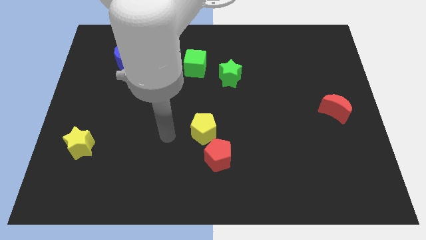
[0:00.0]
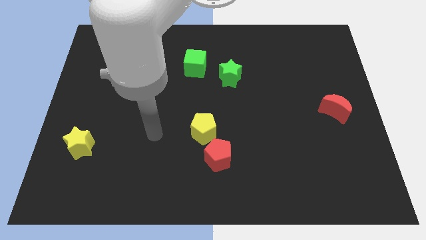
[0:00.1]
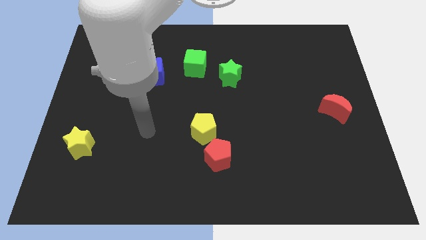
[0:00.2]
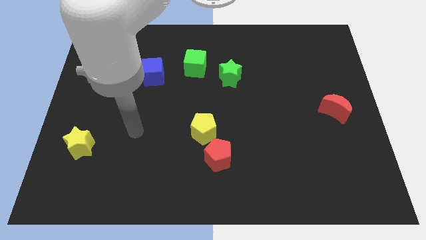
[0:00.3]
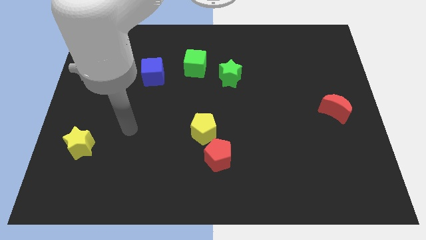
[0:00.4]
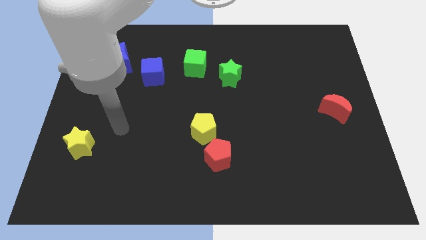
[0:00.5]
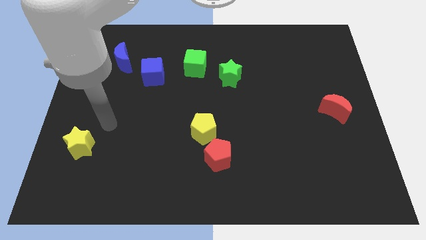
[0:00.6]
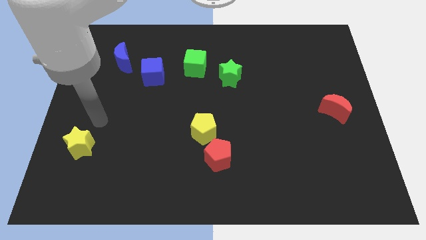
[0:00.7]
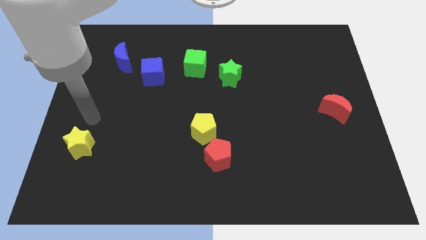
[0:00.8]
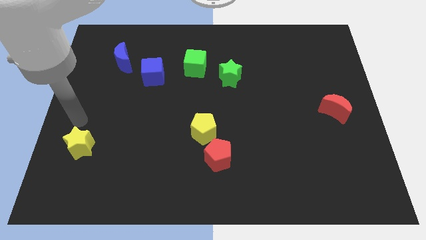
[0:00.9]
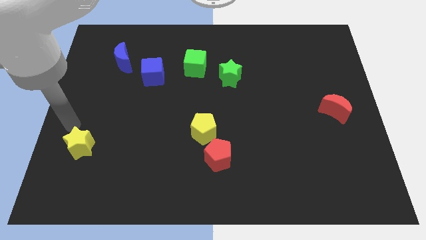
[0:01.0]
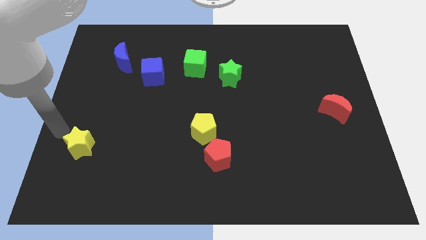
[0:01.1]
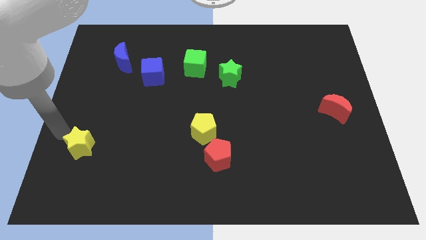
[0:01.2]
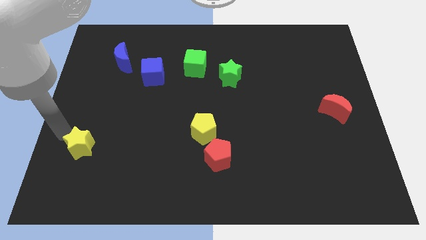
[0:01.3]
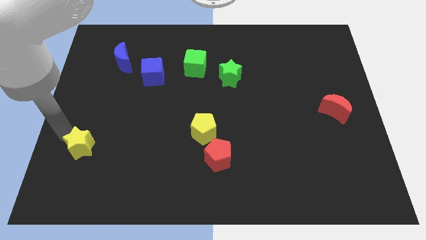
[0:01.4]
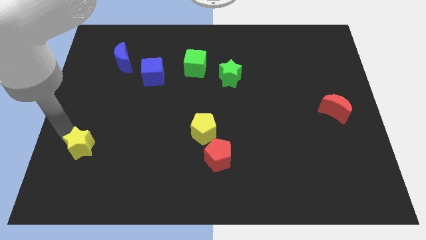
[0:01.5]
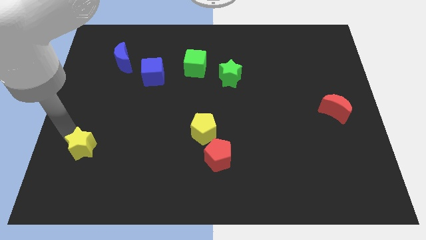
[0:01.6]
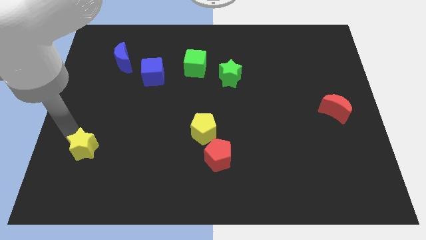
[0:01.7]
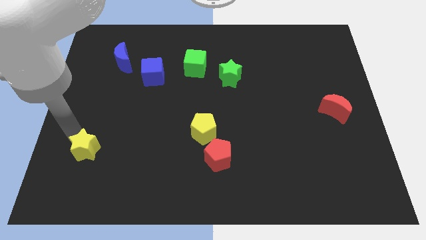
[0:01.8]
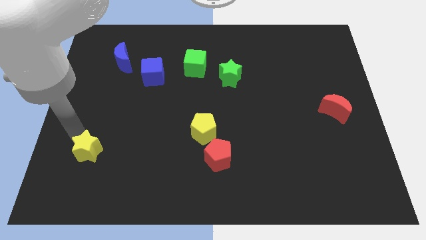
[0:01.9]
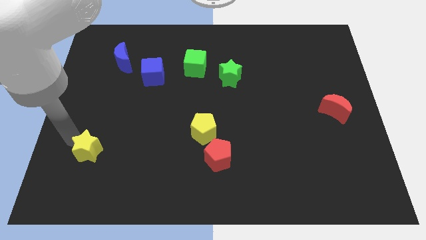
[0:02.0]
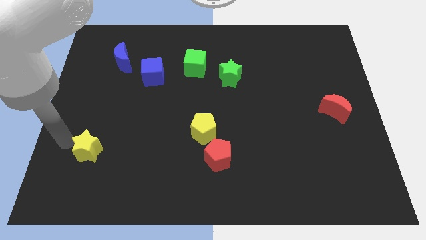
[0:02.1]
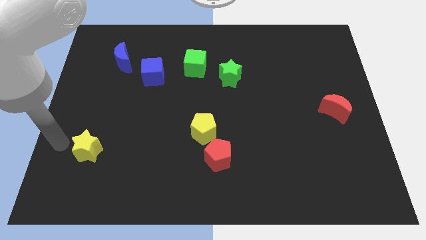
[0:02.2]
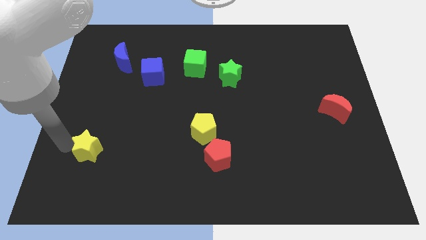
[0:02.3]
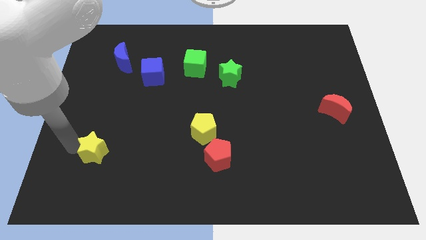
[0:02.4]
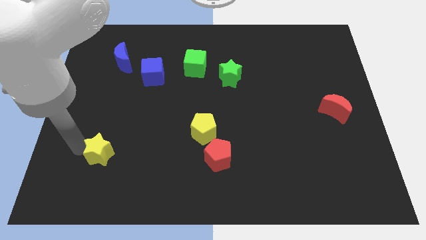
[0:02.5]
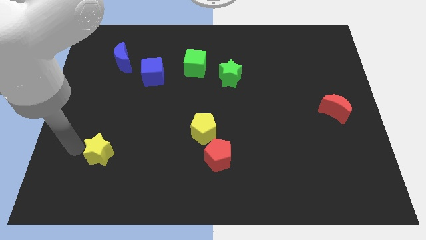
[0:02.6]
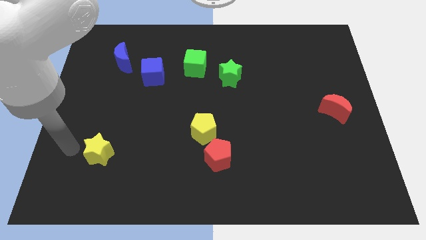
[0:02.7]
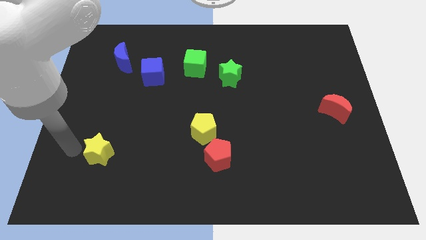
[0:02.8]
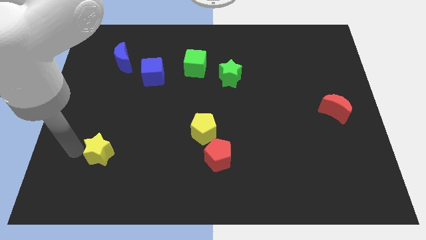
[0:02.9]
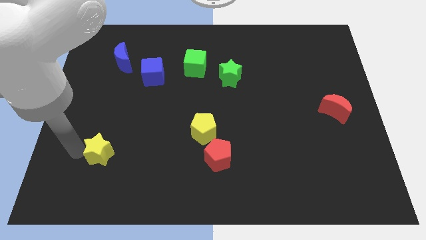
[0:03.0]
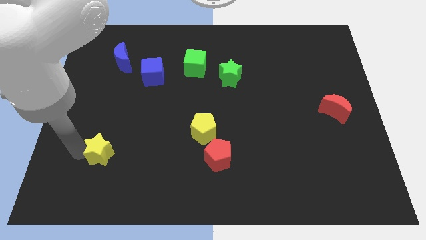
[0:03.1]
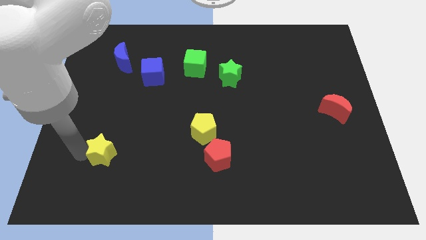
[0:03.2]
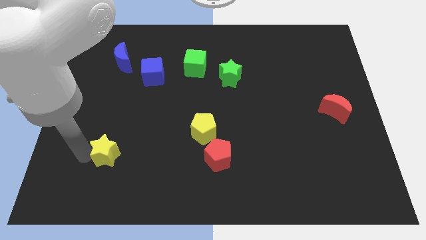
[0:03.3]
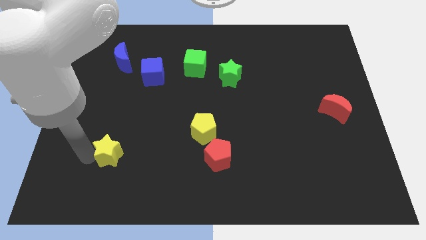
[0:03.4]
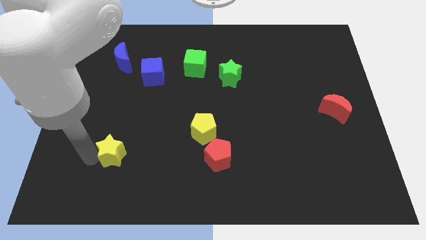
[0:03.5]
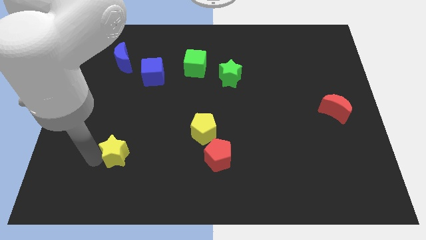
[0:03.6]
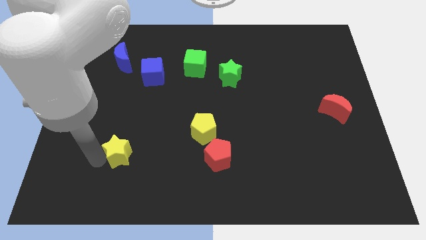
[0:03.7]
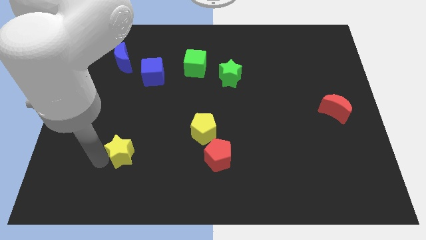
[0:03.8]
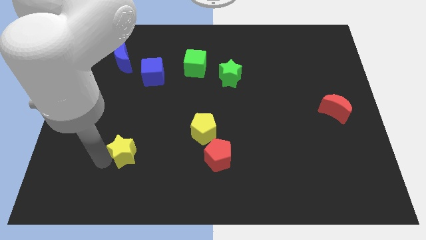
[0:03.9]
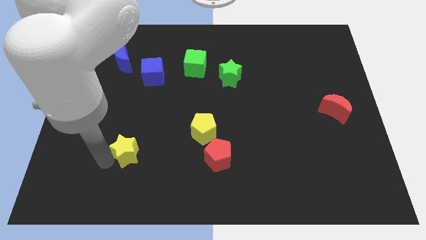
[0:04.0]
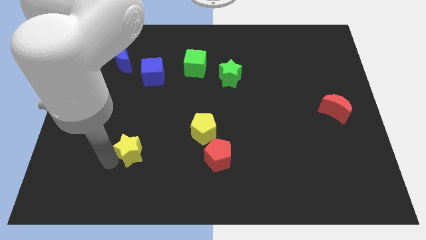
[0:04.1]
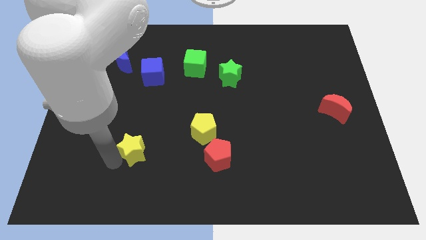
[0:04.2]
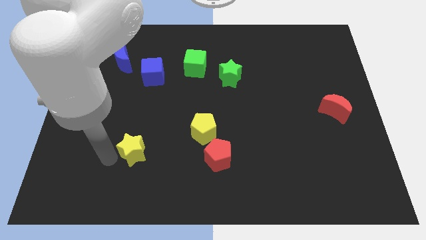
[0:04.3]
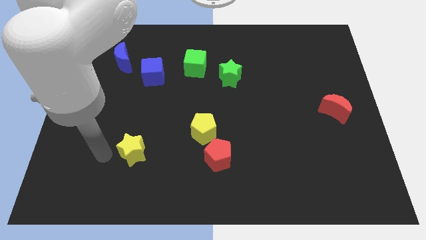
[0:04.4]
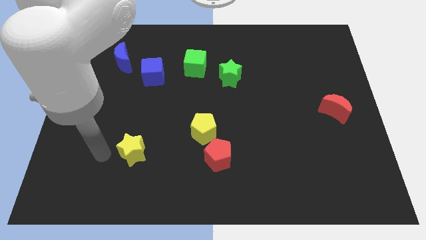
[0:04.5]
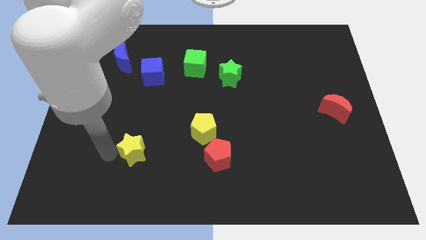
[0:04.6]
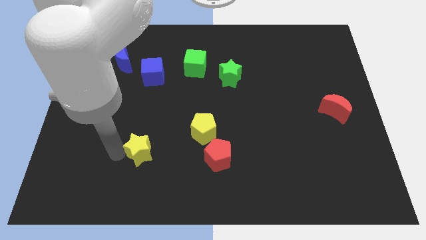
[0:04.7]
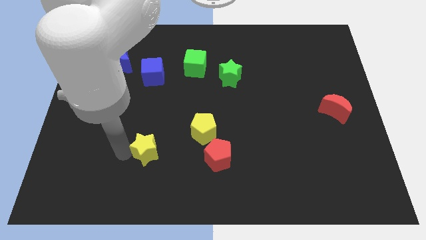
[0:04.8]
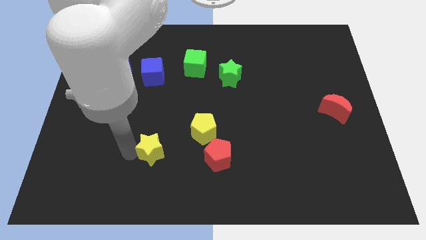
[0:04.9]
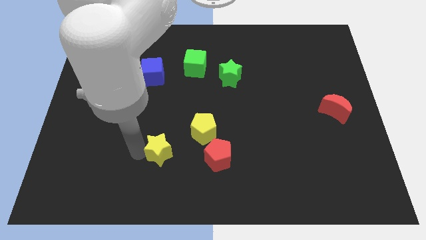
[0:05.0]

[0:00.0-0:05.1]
move the yellow star diagonally down and to the left of the yellow pentagon

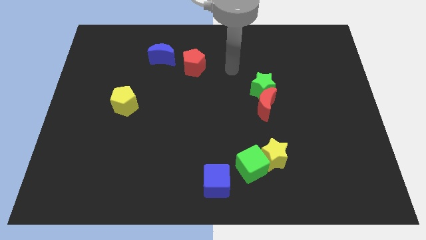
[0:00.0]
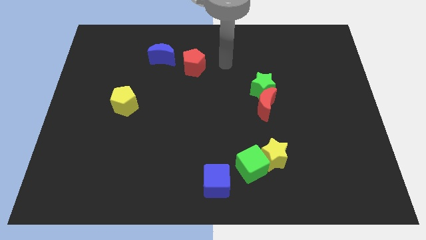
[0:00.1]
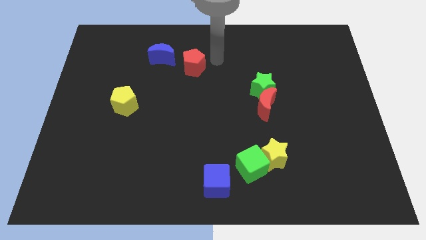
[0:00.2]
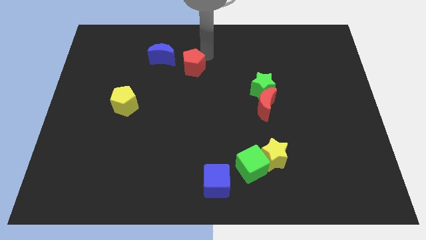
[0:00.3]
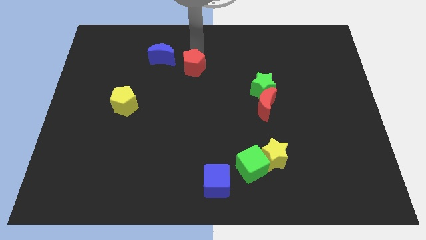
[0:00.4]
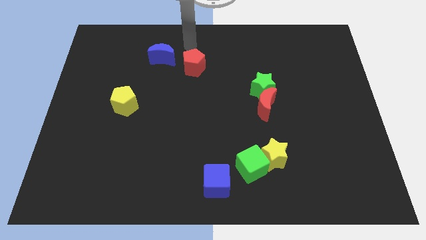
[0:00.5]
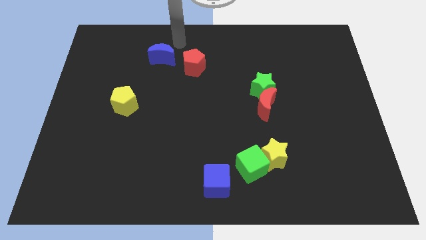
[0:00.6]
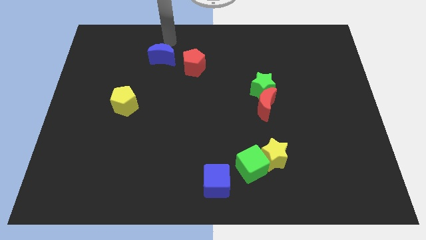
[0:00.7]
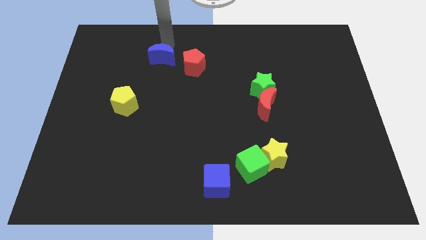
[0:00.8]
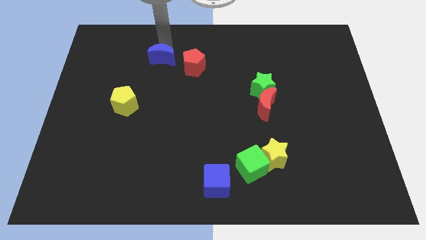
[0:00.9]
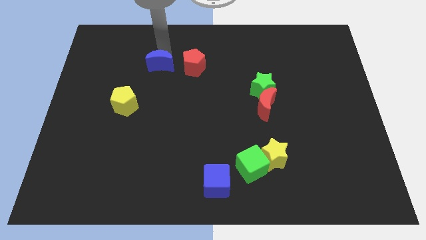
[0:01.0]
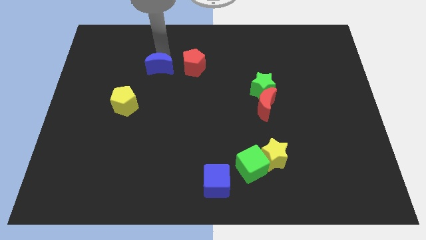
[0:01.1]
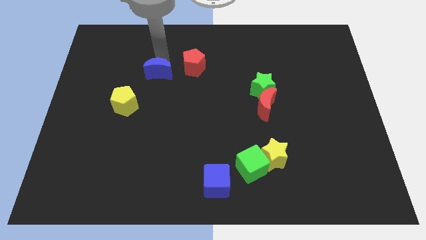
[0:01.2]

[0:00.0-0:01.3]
push the blue moon diagonally up and to the right of the yellow pentagon

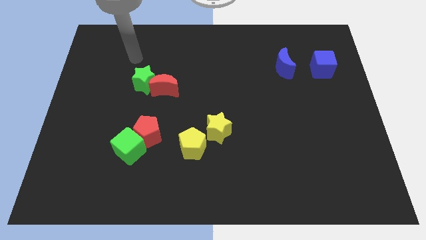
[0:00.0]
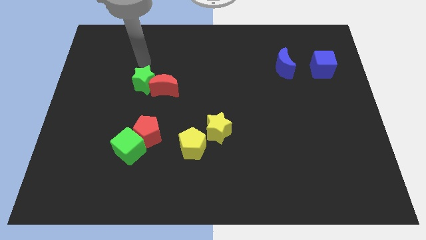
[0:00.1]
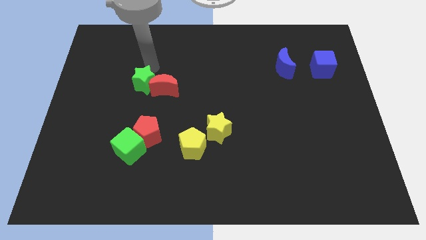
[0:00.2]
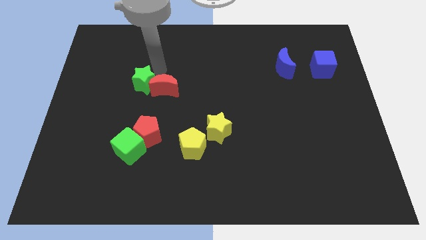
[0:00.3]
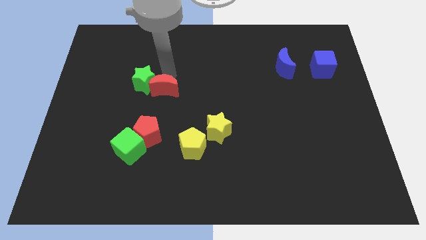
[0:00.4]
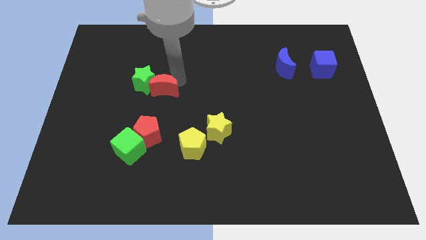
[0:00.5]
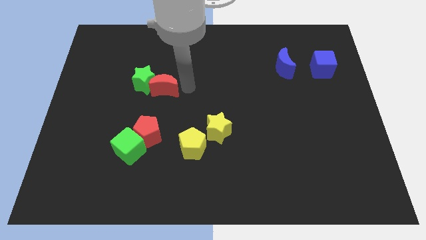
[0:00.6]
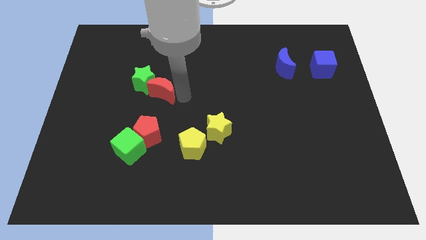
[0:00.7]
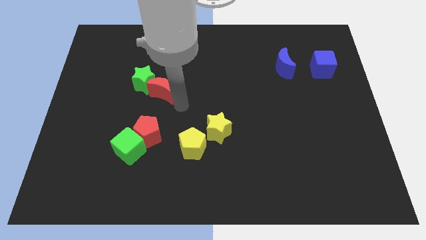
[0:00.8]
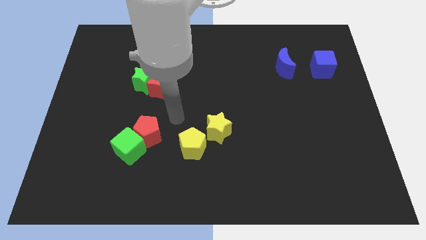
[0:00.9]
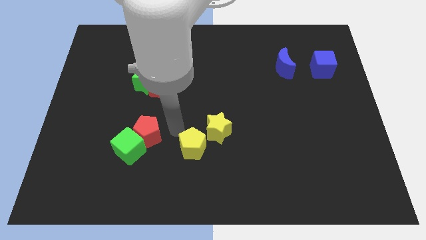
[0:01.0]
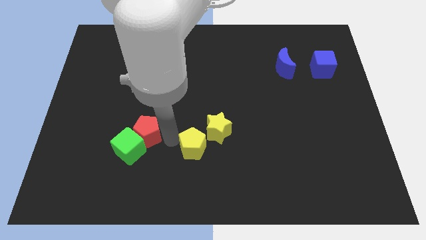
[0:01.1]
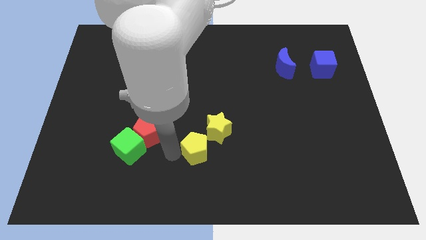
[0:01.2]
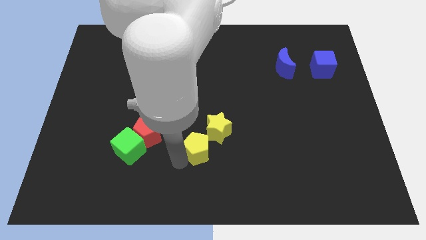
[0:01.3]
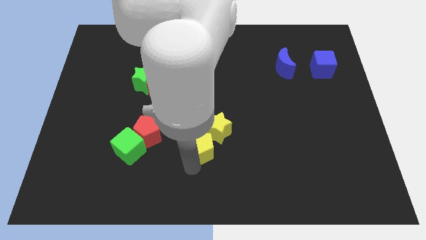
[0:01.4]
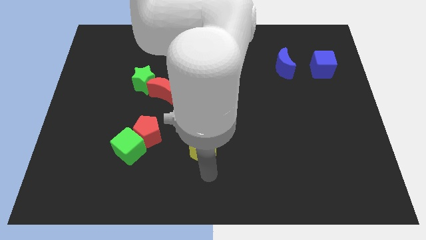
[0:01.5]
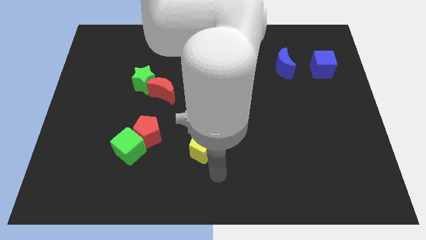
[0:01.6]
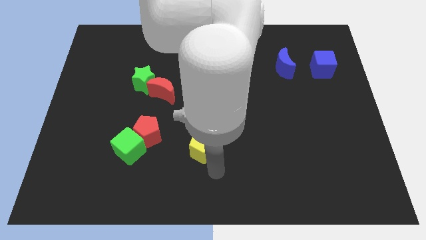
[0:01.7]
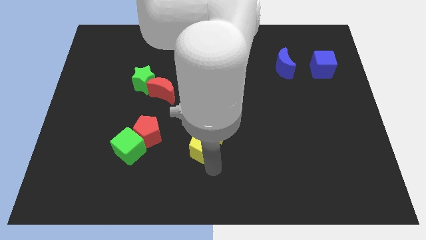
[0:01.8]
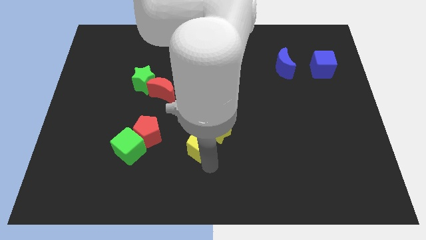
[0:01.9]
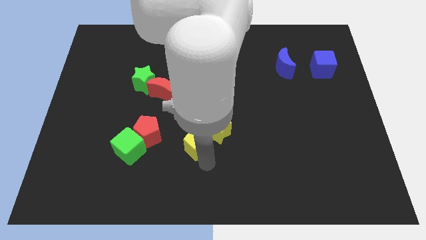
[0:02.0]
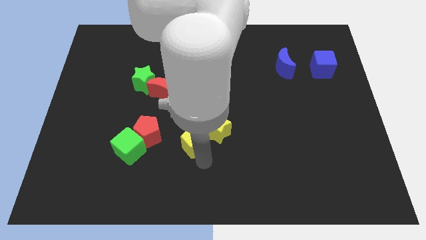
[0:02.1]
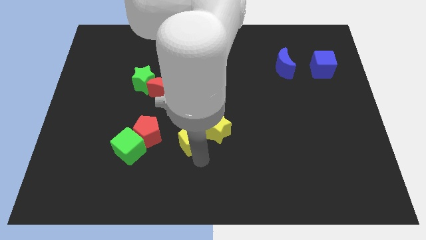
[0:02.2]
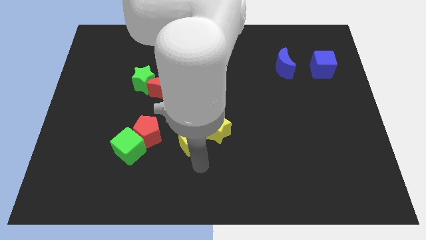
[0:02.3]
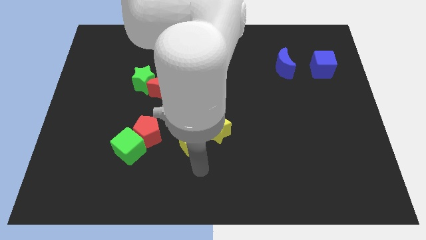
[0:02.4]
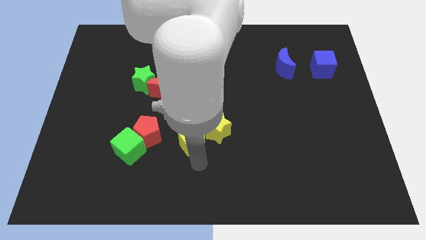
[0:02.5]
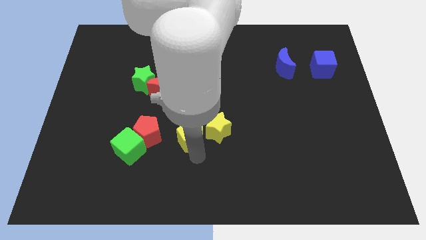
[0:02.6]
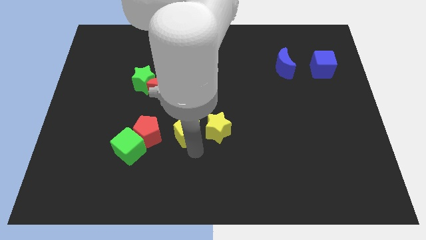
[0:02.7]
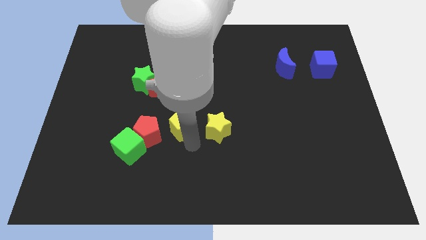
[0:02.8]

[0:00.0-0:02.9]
move the yellow pentagon to the bottom right side of the red moon
